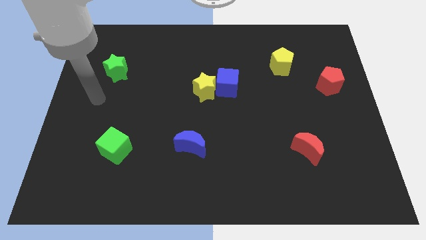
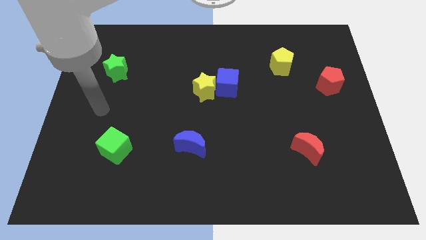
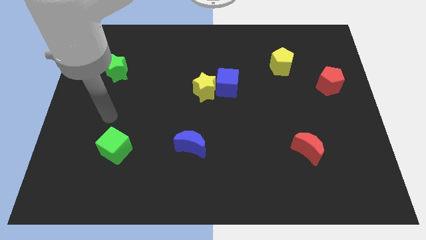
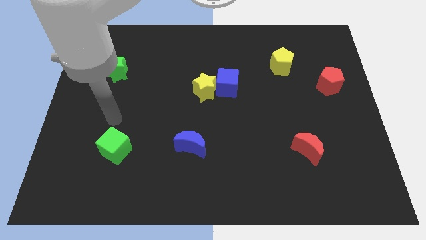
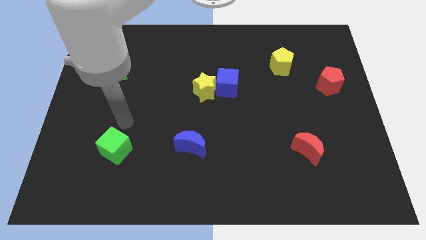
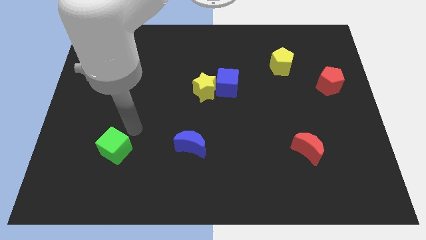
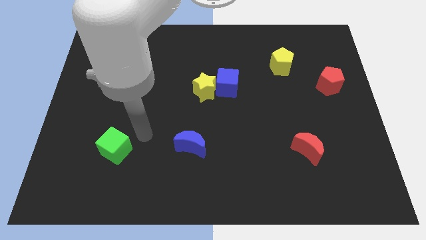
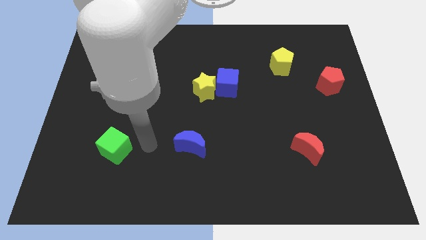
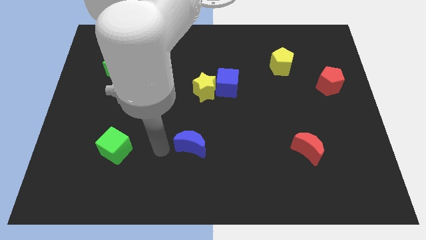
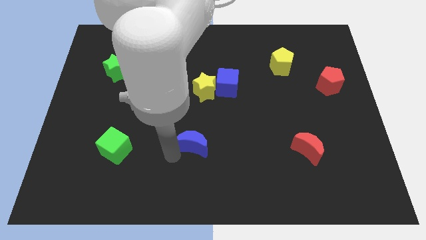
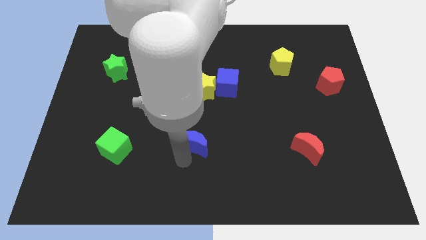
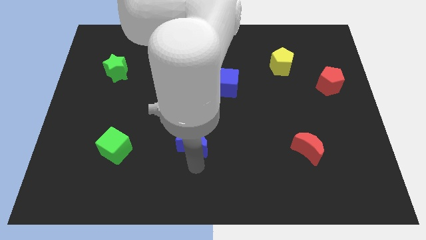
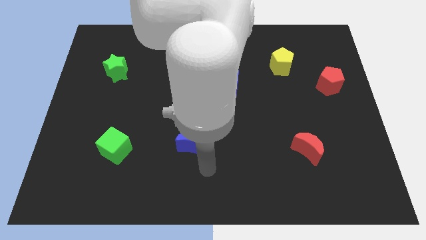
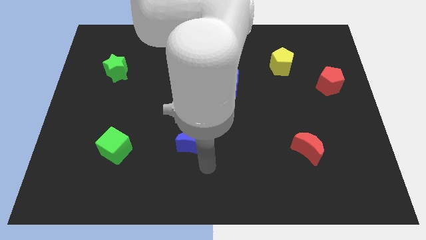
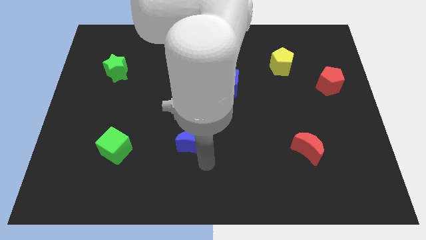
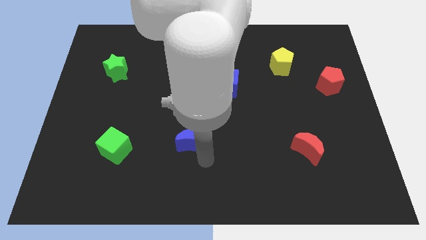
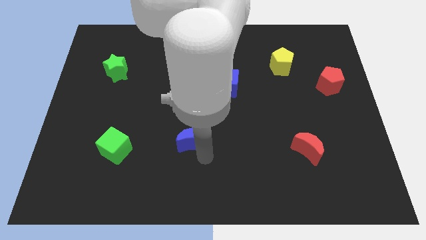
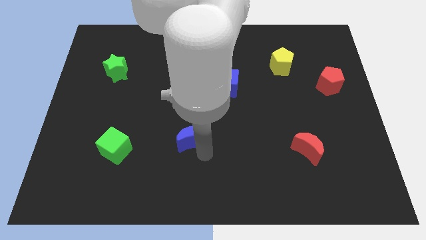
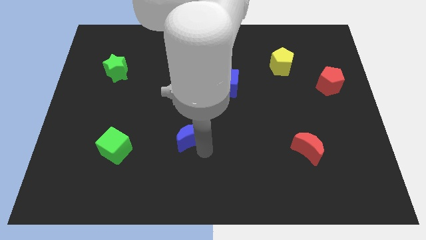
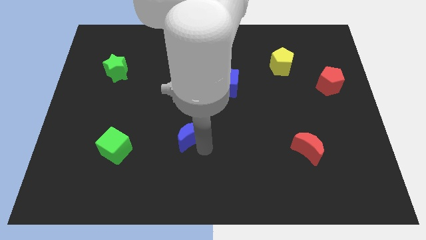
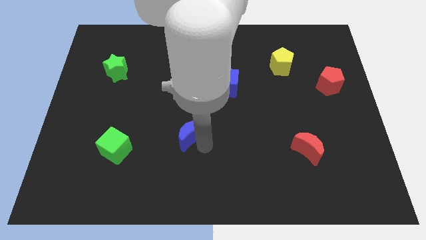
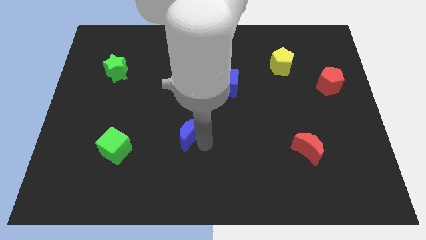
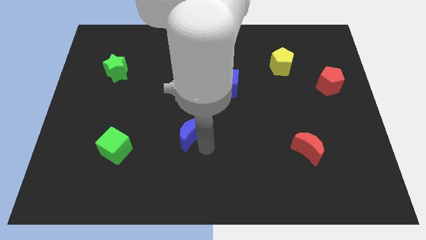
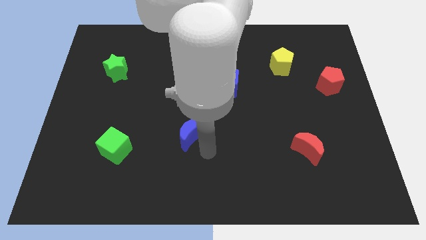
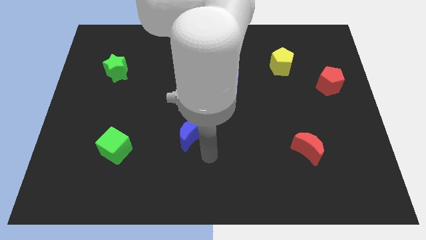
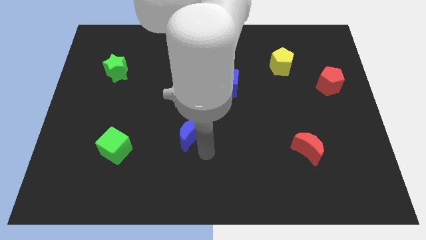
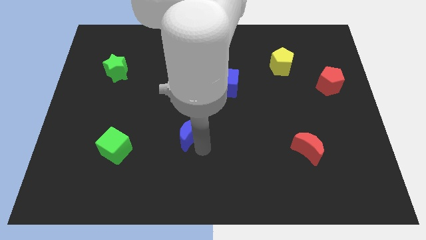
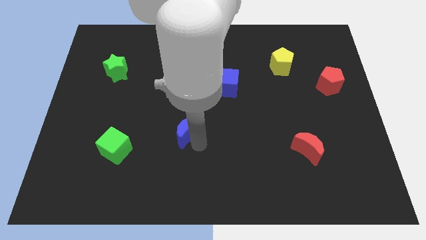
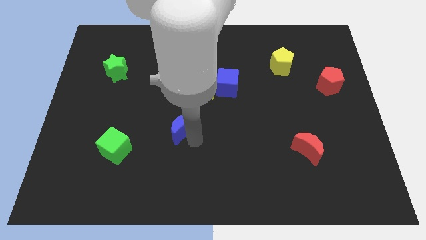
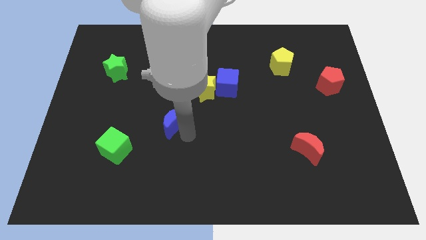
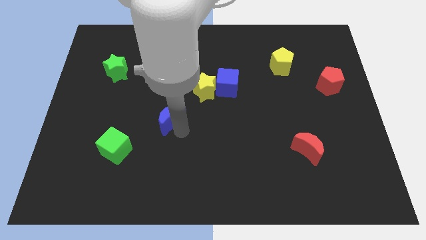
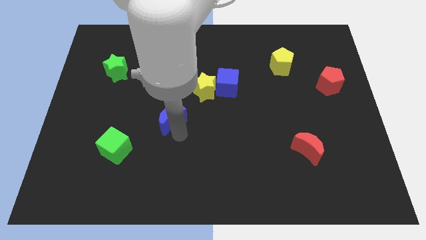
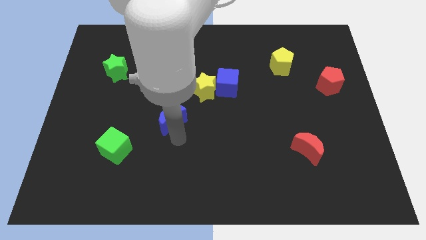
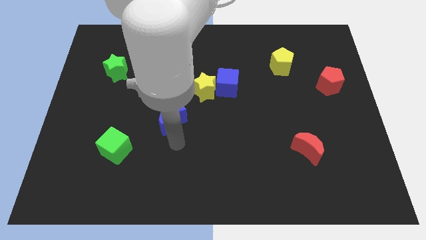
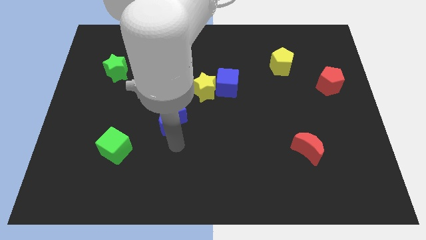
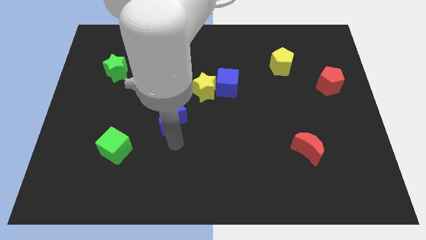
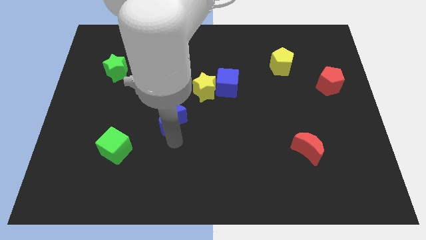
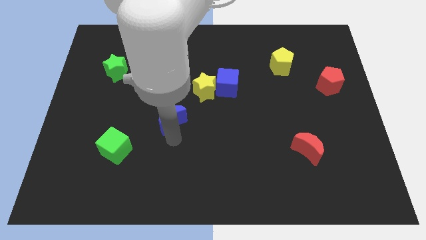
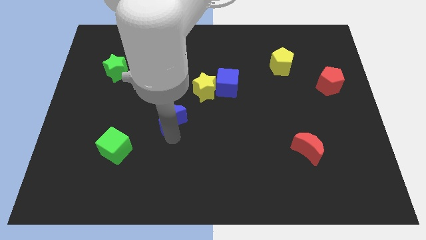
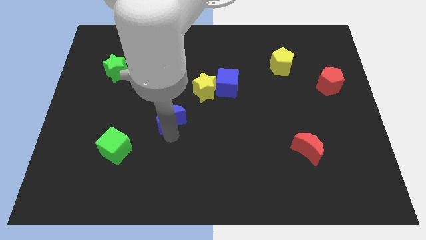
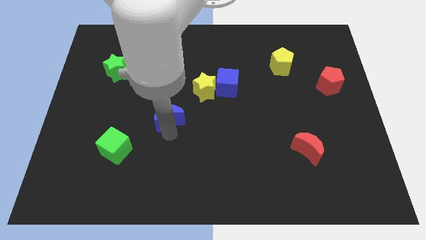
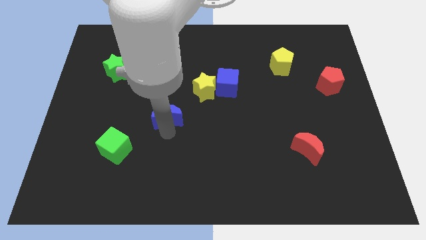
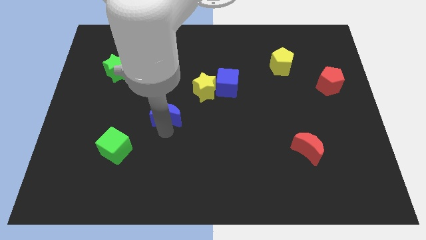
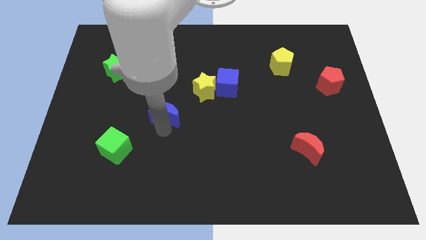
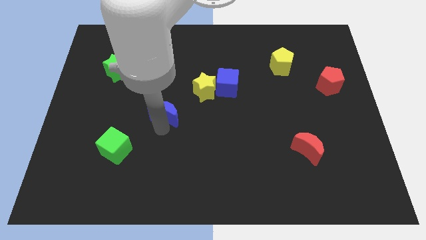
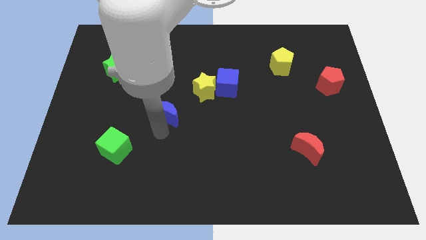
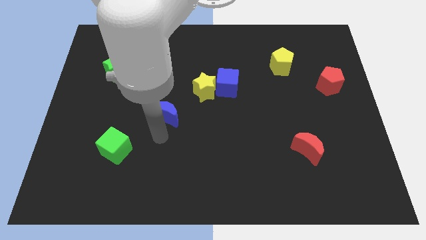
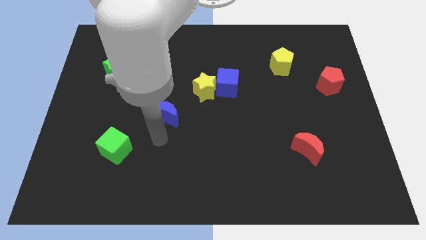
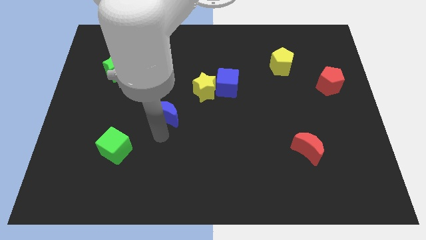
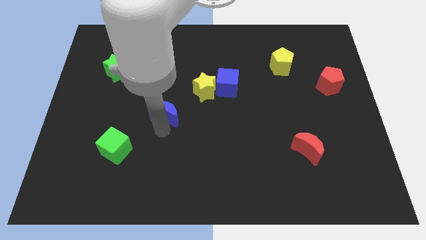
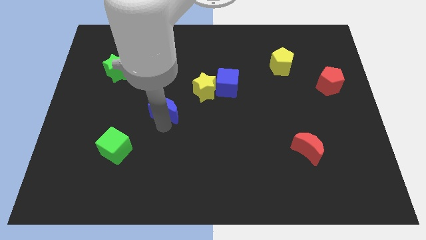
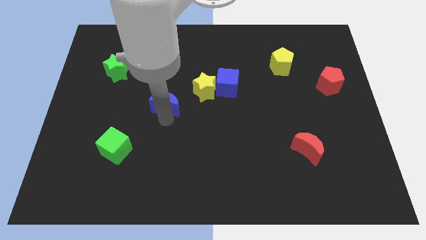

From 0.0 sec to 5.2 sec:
put the blue moon to the left side of the yellow star

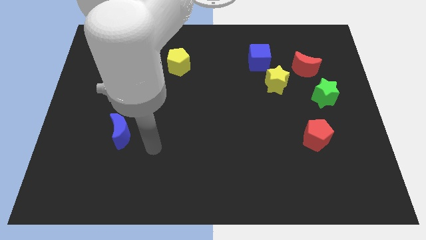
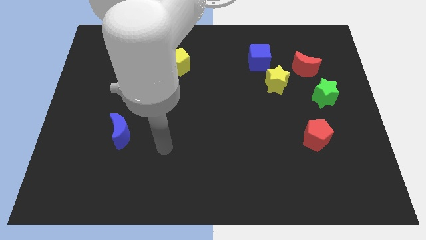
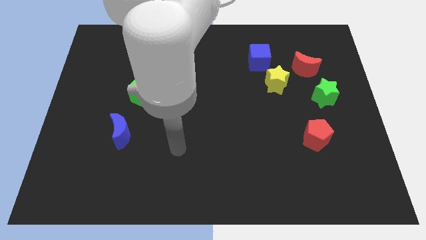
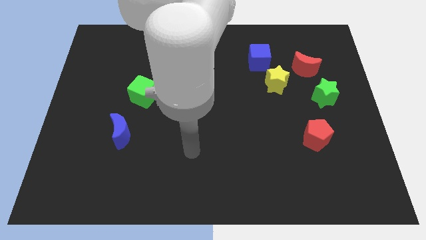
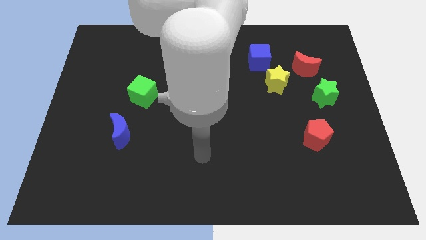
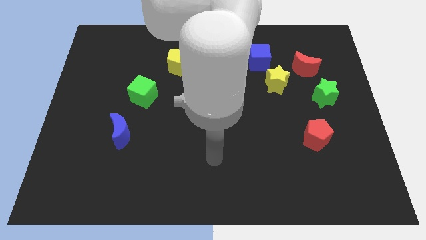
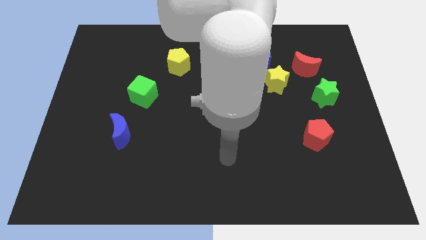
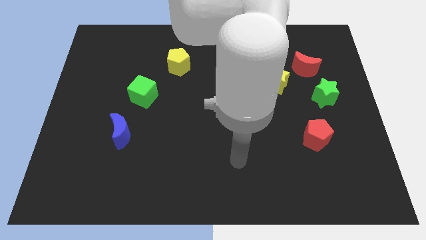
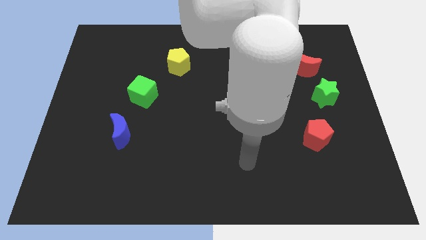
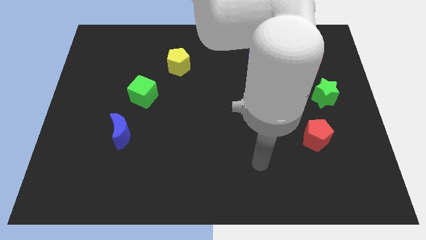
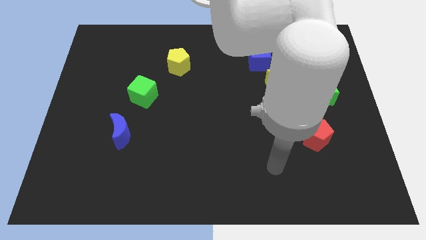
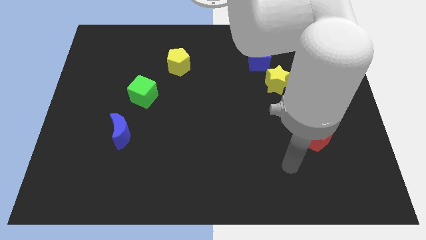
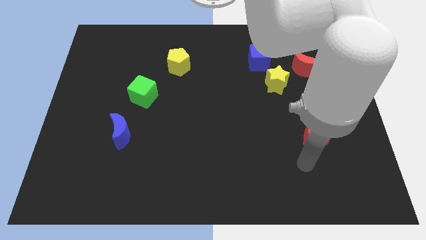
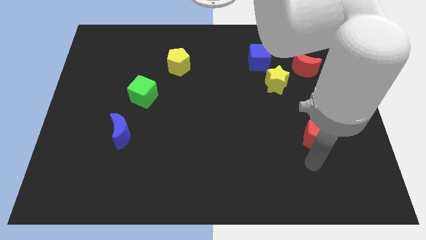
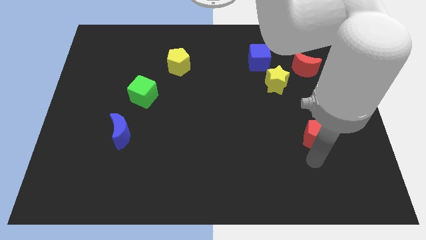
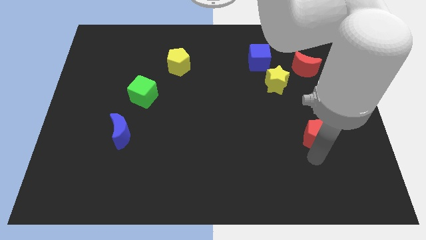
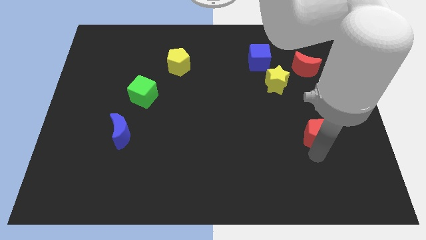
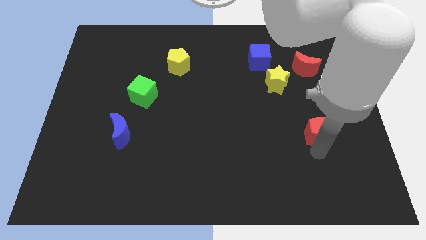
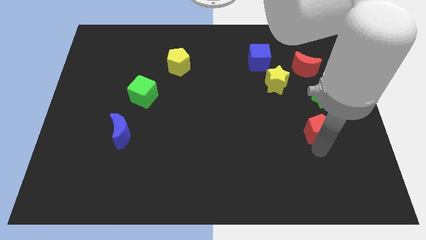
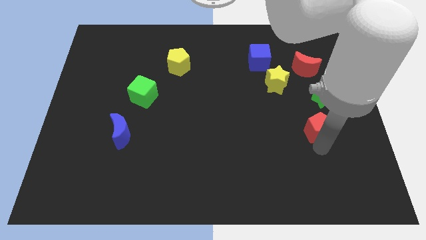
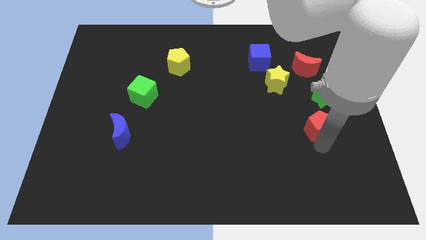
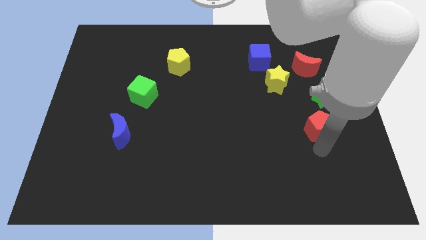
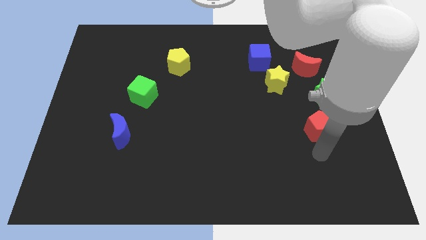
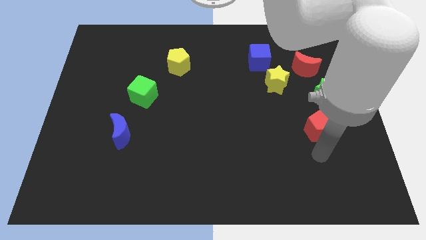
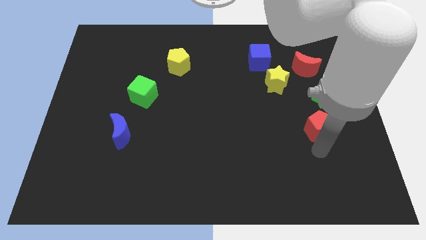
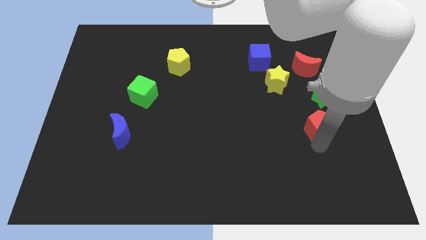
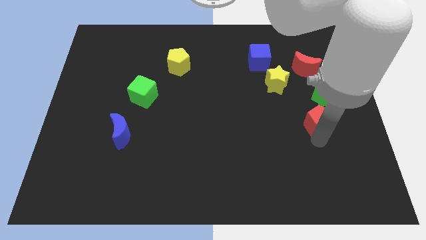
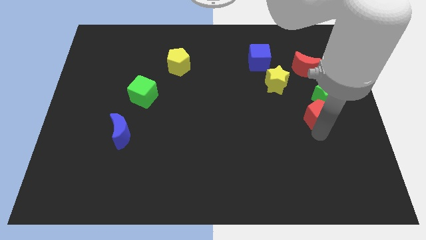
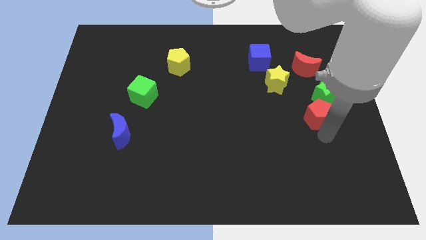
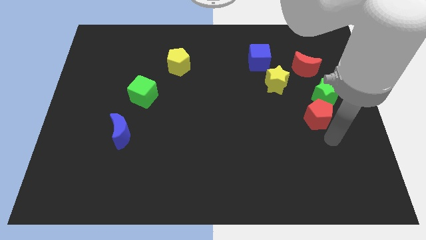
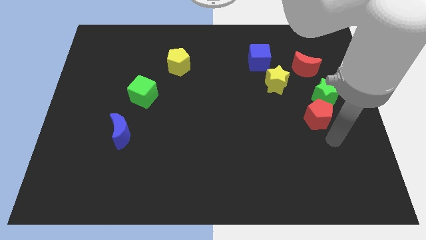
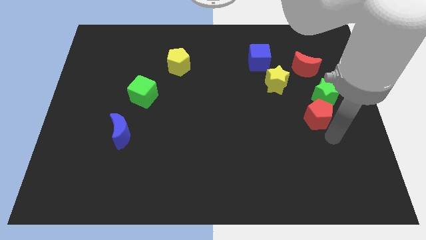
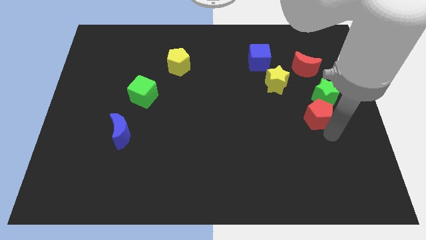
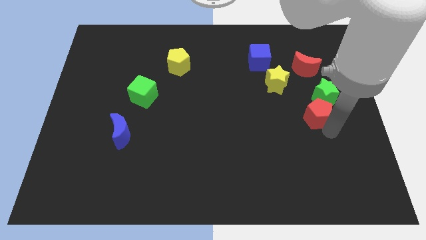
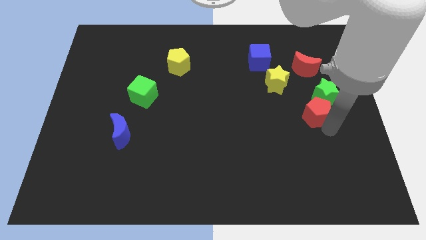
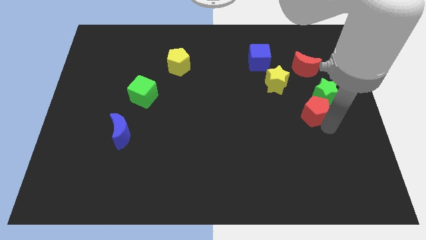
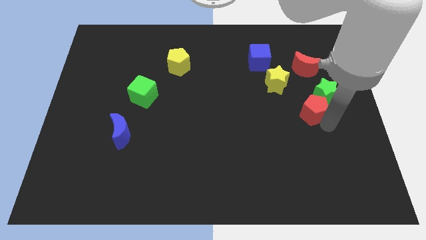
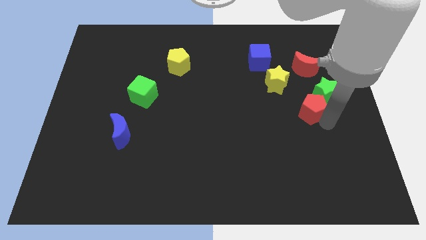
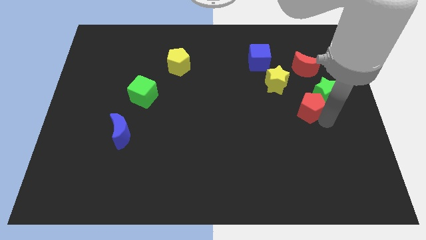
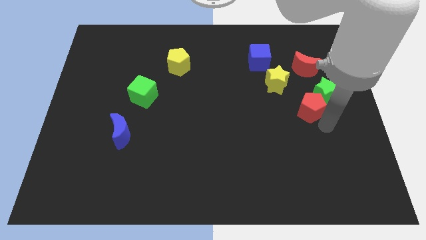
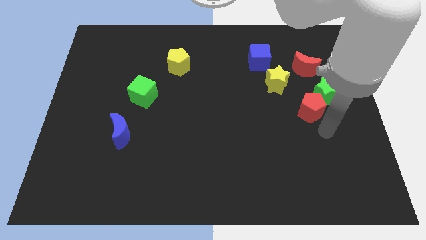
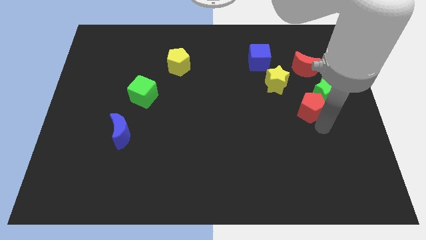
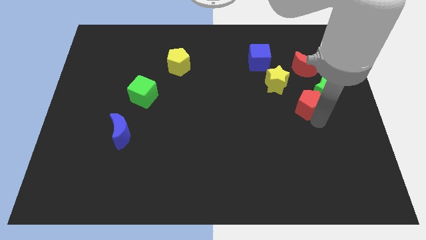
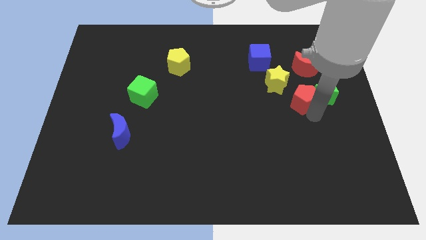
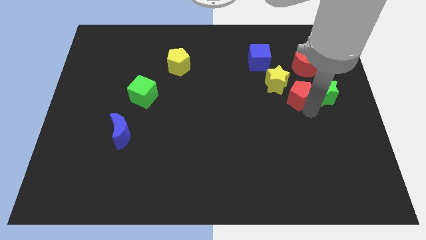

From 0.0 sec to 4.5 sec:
push the red pentagon to the right side of the yellow star
